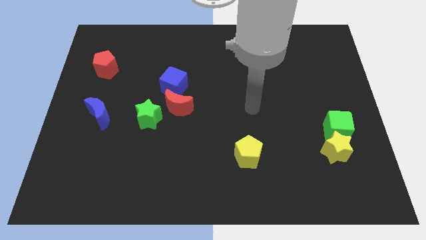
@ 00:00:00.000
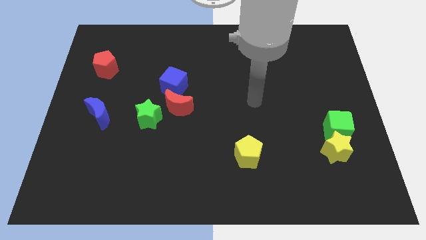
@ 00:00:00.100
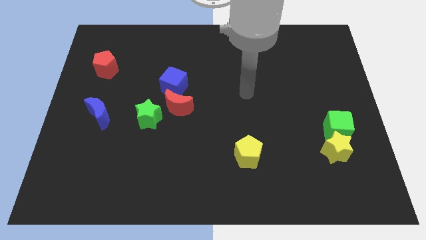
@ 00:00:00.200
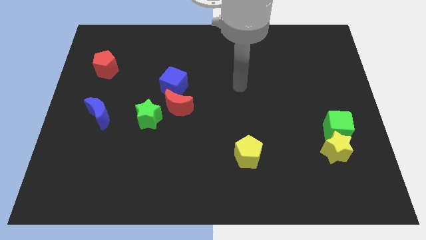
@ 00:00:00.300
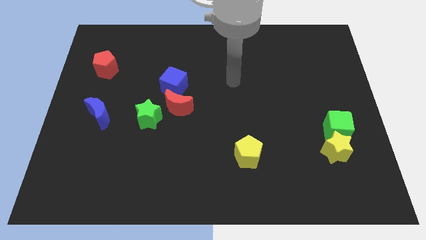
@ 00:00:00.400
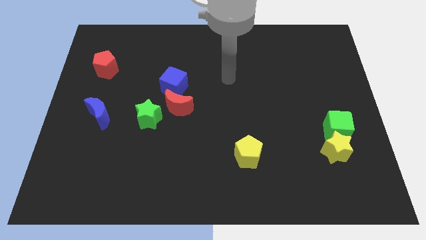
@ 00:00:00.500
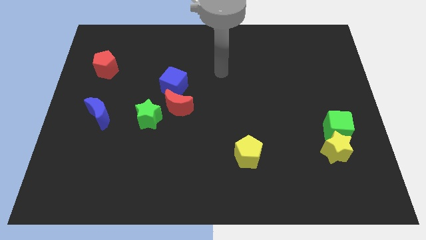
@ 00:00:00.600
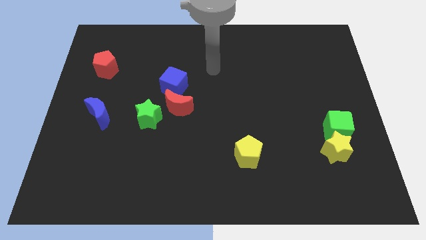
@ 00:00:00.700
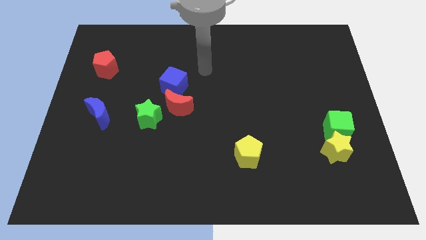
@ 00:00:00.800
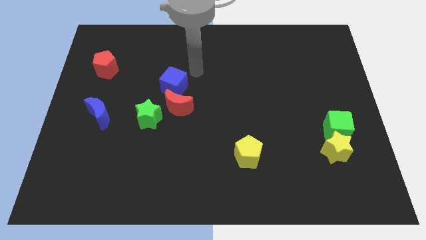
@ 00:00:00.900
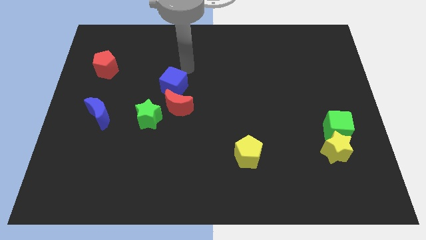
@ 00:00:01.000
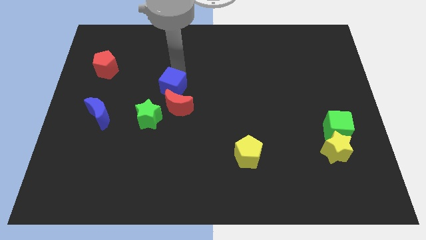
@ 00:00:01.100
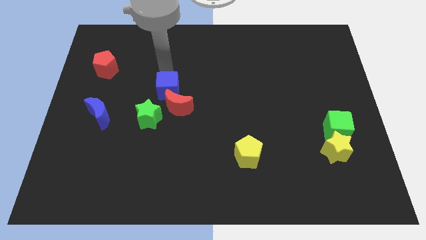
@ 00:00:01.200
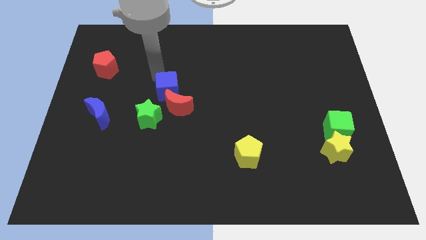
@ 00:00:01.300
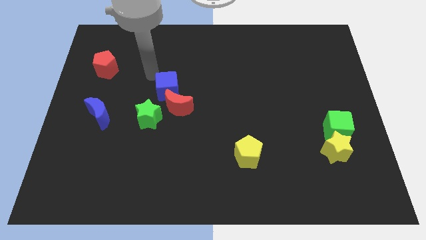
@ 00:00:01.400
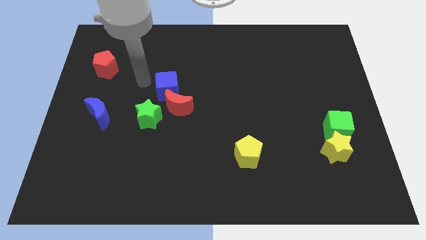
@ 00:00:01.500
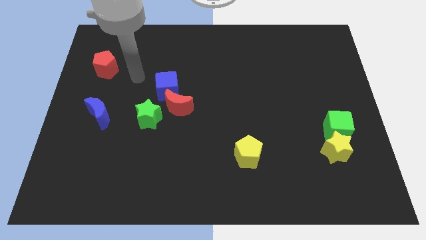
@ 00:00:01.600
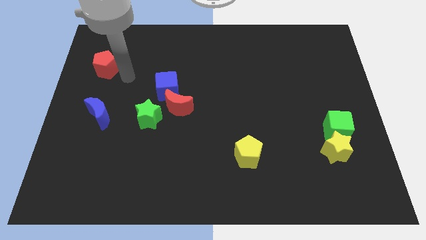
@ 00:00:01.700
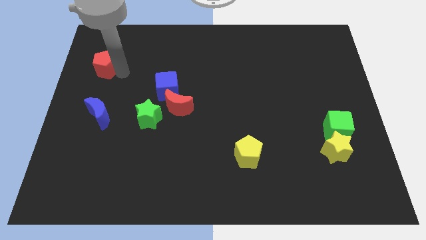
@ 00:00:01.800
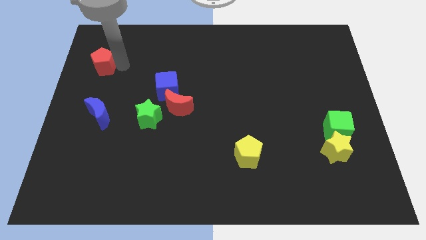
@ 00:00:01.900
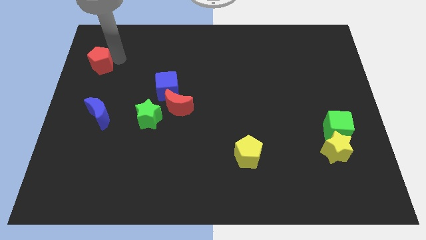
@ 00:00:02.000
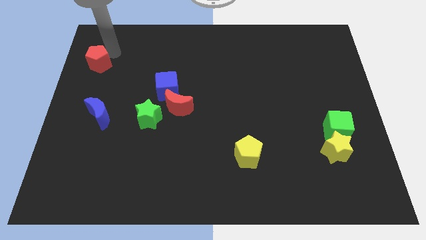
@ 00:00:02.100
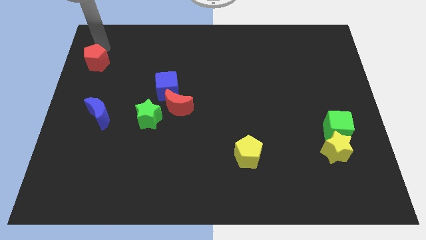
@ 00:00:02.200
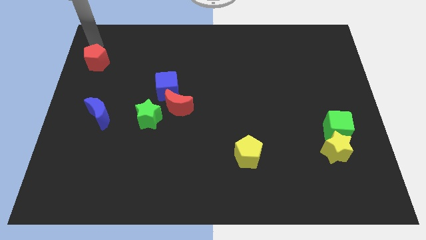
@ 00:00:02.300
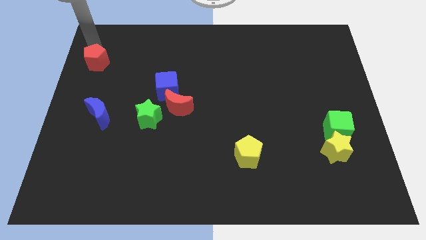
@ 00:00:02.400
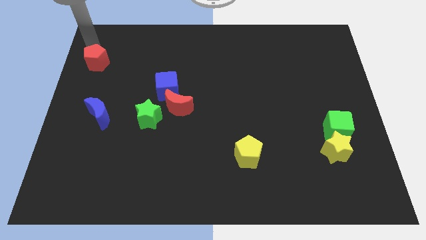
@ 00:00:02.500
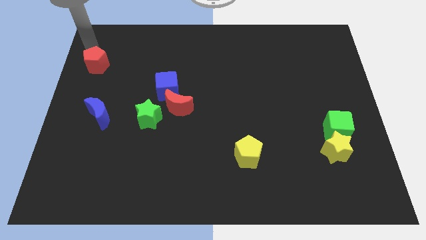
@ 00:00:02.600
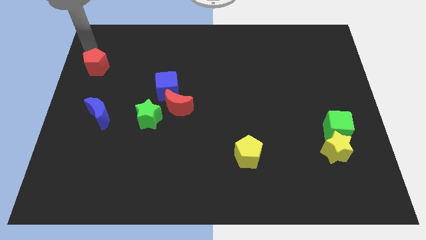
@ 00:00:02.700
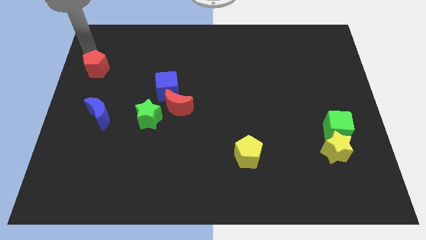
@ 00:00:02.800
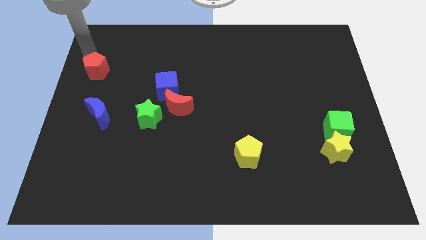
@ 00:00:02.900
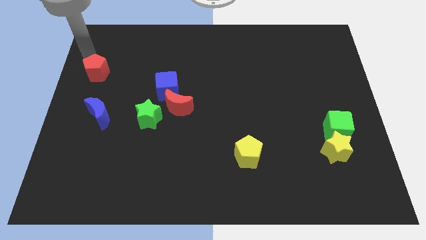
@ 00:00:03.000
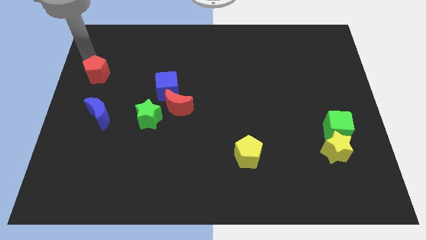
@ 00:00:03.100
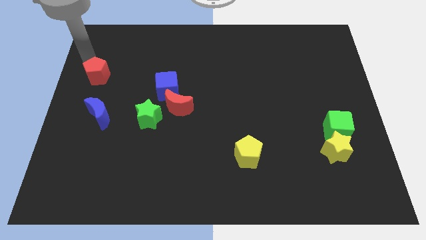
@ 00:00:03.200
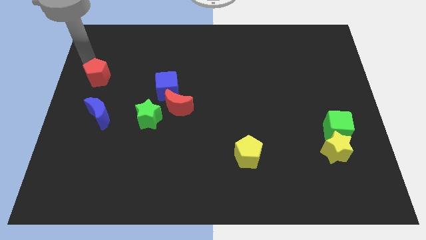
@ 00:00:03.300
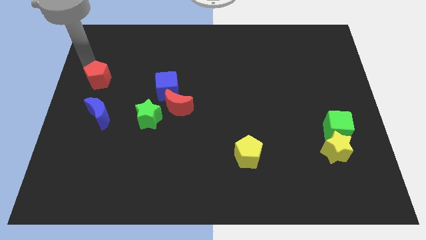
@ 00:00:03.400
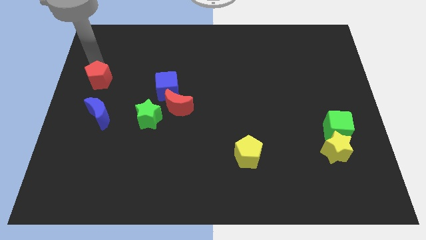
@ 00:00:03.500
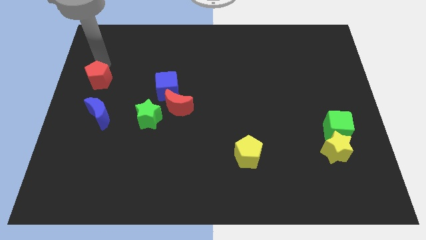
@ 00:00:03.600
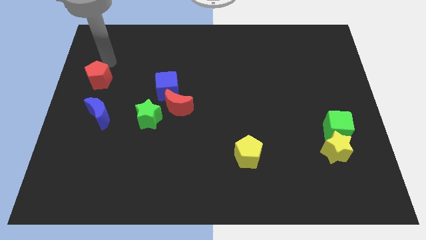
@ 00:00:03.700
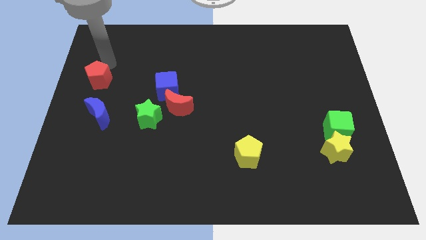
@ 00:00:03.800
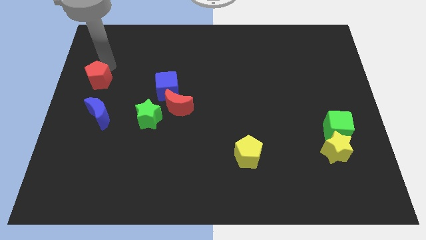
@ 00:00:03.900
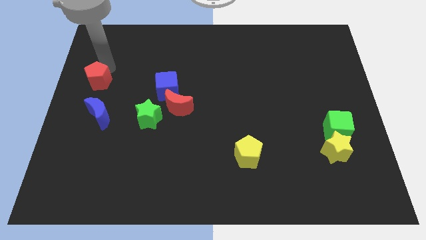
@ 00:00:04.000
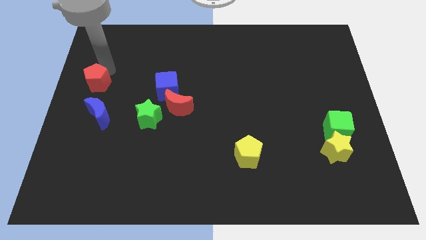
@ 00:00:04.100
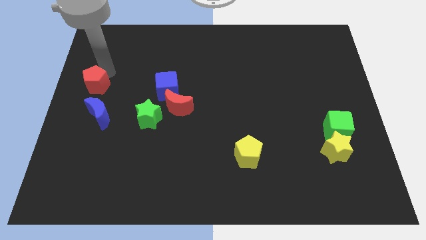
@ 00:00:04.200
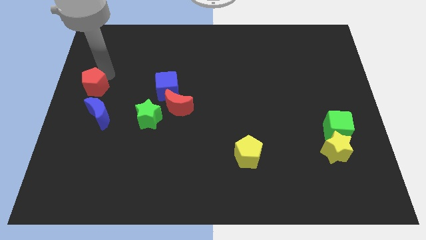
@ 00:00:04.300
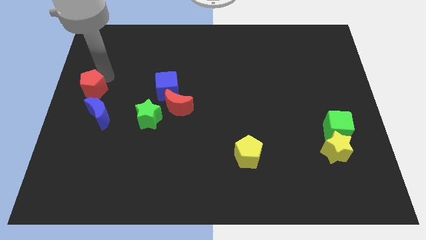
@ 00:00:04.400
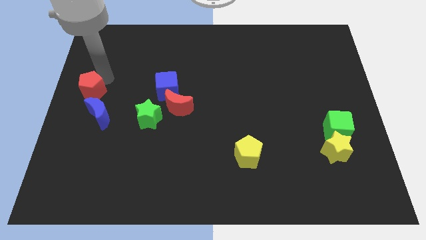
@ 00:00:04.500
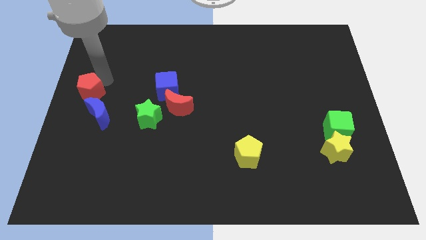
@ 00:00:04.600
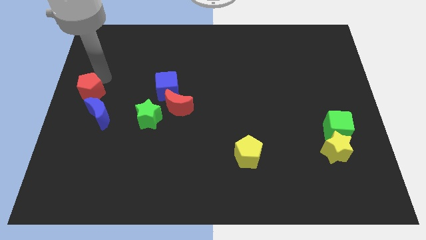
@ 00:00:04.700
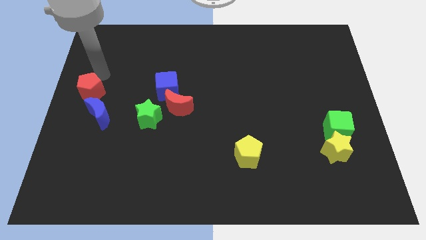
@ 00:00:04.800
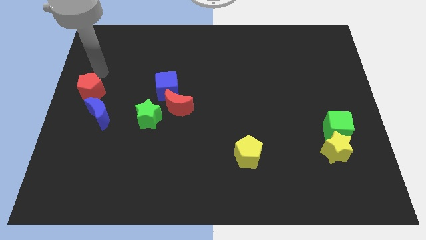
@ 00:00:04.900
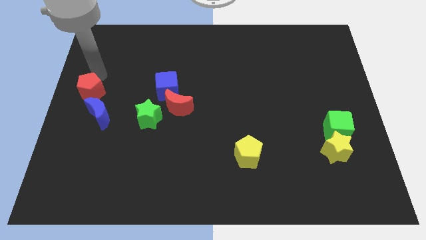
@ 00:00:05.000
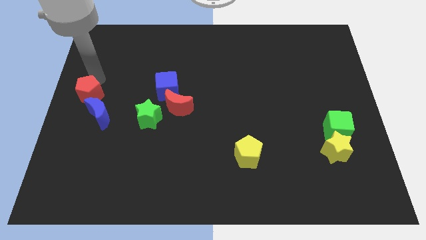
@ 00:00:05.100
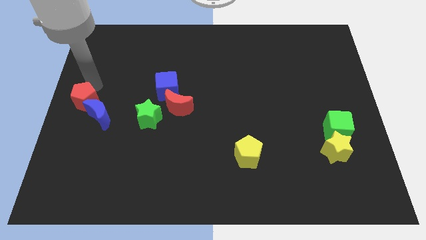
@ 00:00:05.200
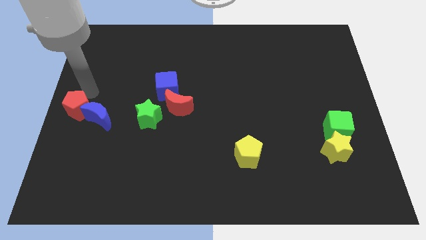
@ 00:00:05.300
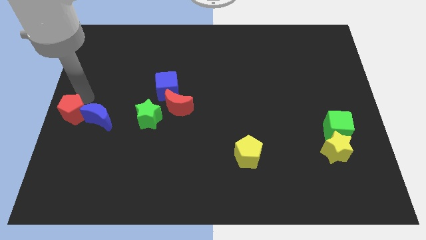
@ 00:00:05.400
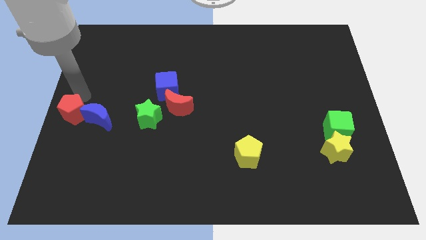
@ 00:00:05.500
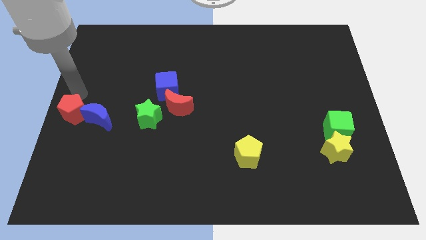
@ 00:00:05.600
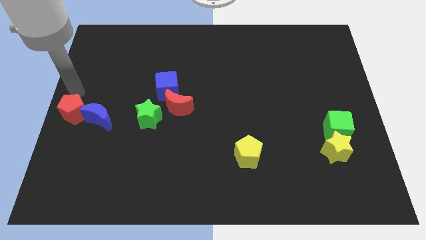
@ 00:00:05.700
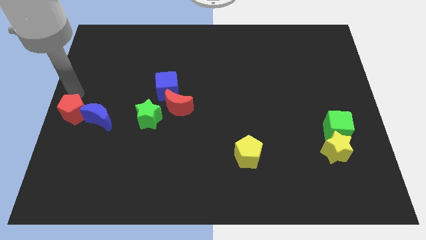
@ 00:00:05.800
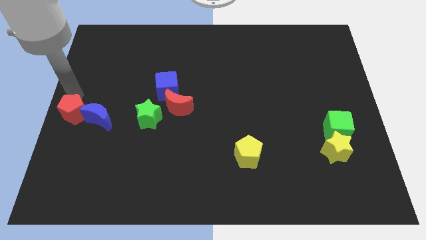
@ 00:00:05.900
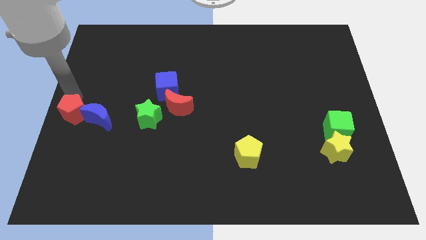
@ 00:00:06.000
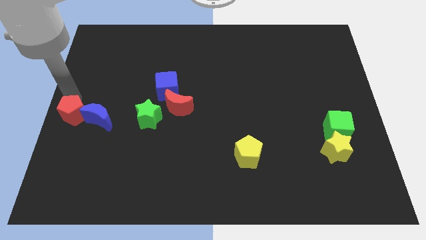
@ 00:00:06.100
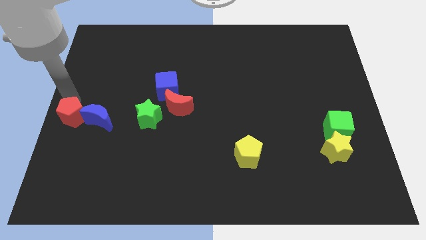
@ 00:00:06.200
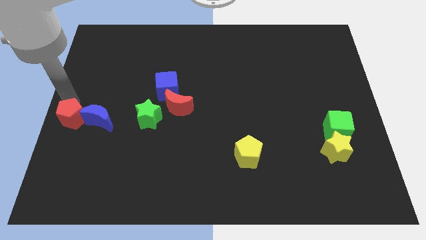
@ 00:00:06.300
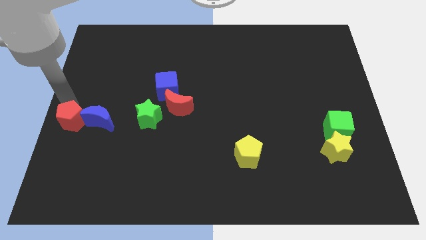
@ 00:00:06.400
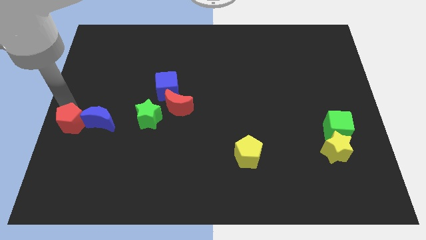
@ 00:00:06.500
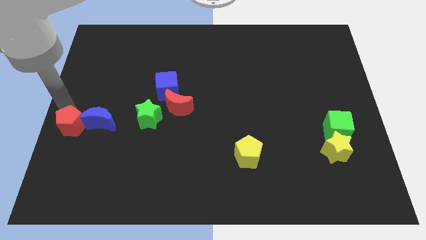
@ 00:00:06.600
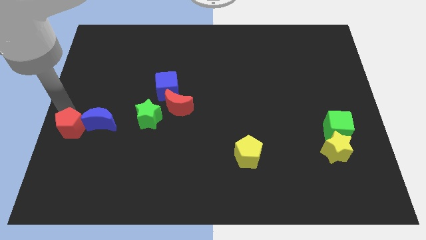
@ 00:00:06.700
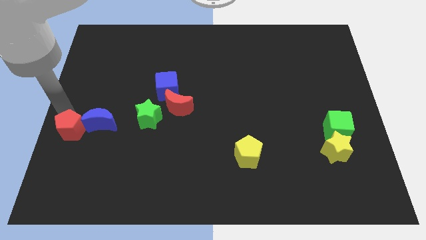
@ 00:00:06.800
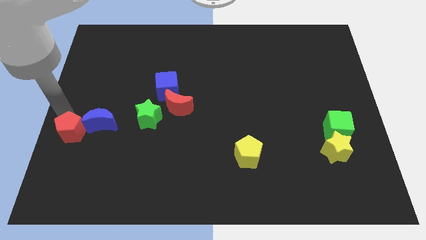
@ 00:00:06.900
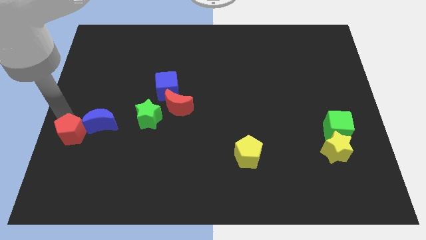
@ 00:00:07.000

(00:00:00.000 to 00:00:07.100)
move the red pentagon downwards

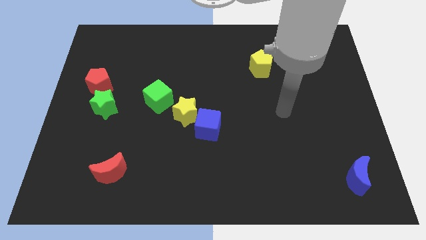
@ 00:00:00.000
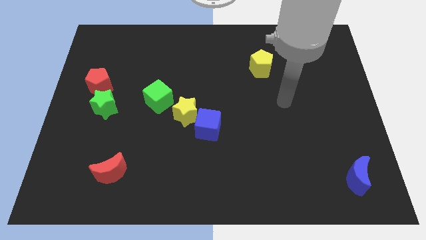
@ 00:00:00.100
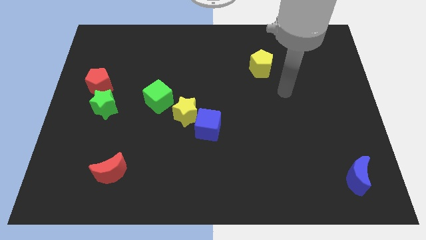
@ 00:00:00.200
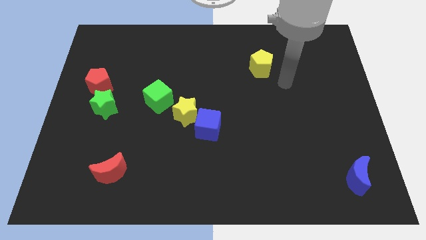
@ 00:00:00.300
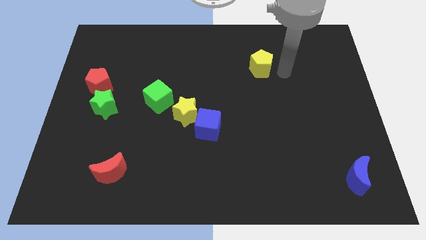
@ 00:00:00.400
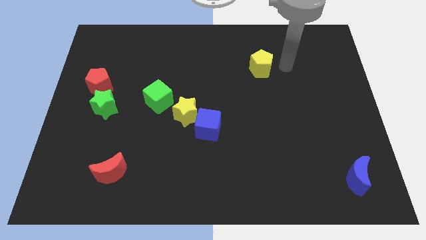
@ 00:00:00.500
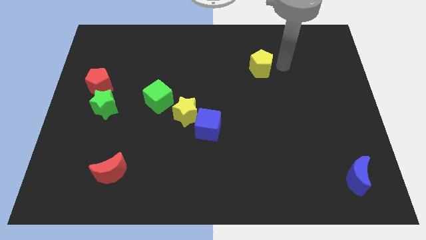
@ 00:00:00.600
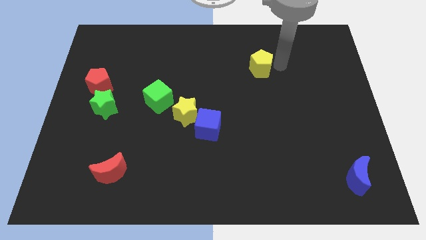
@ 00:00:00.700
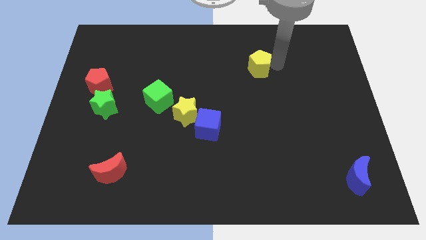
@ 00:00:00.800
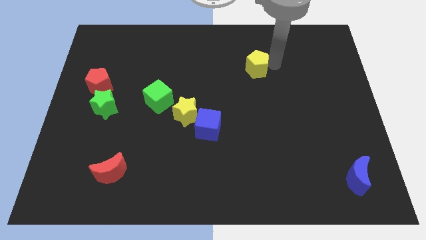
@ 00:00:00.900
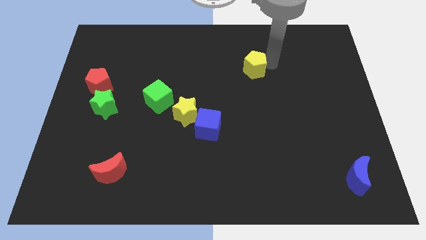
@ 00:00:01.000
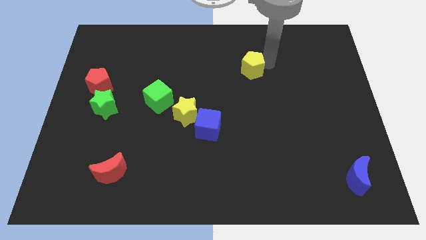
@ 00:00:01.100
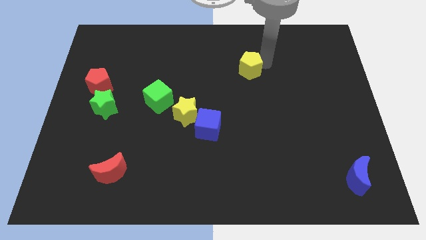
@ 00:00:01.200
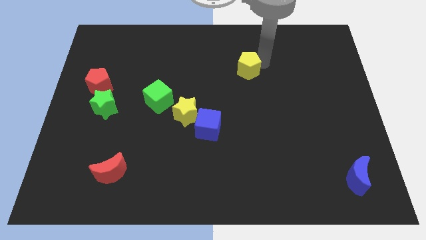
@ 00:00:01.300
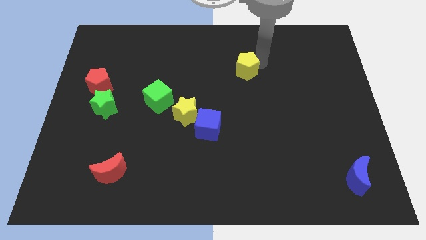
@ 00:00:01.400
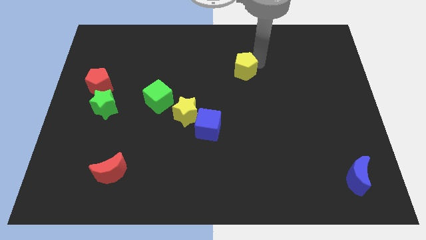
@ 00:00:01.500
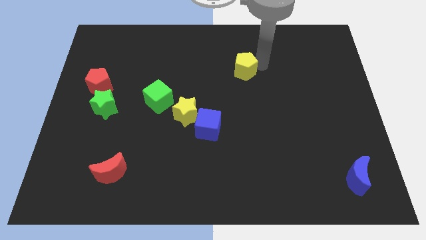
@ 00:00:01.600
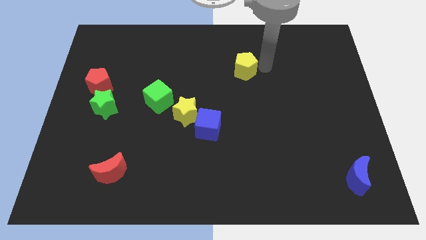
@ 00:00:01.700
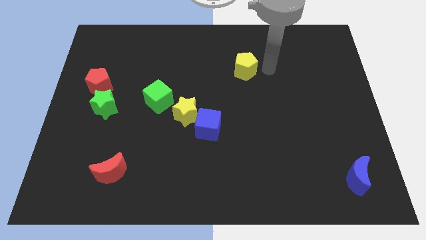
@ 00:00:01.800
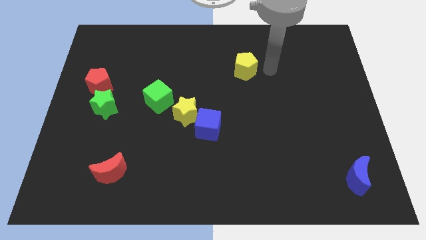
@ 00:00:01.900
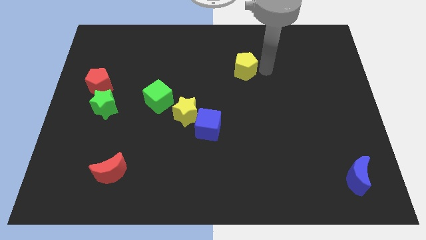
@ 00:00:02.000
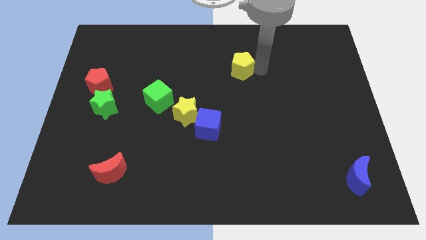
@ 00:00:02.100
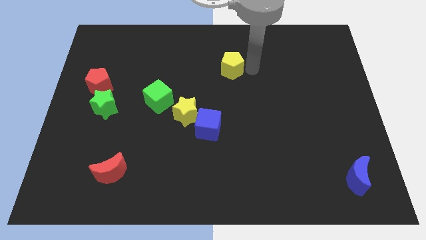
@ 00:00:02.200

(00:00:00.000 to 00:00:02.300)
slide the yellow pentagon to the left a little
